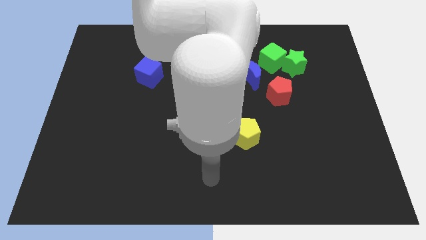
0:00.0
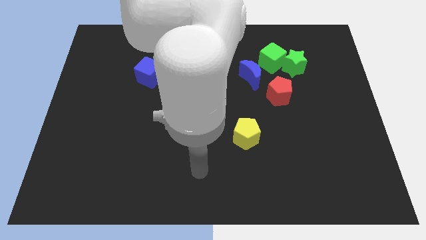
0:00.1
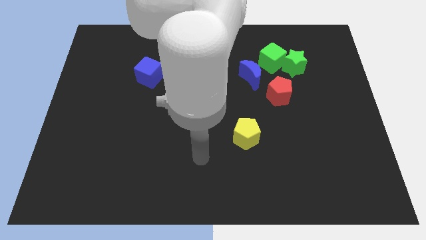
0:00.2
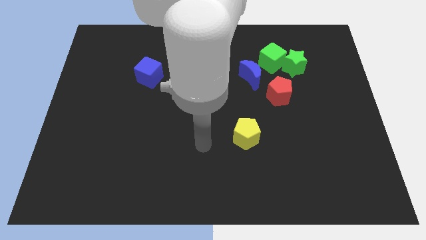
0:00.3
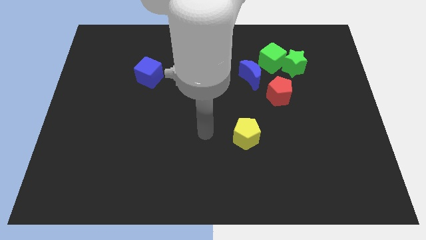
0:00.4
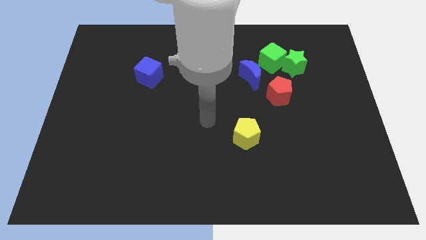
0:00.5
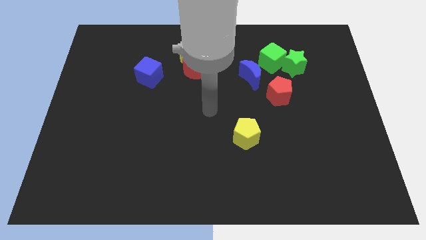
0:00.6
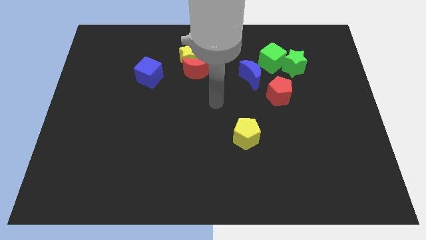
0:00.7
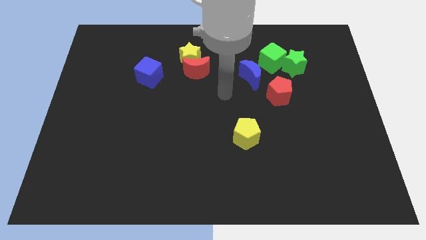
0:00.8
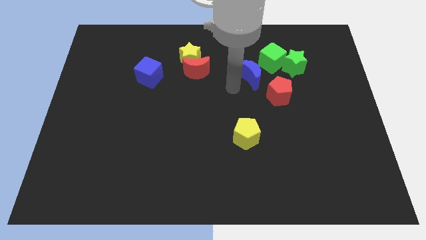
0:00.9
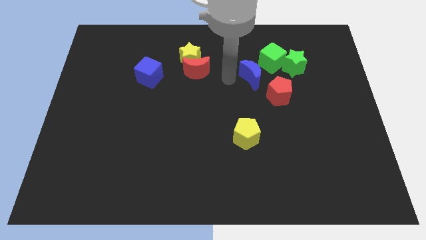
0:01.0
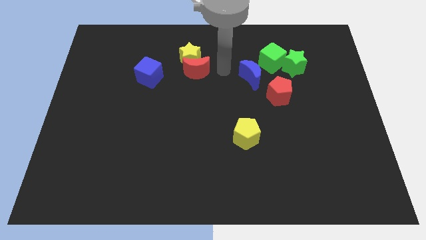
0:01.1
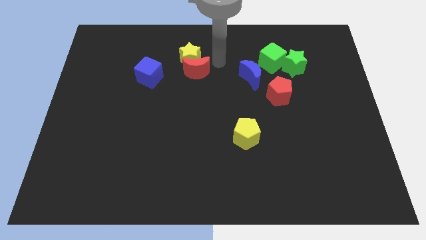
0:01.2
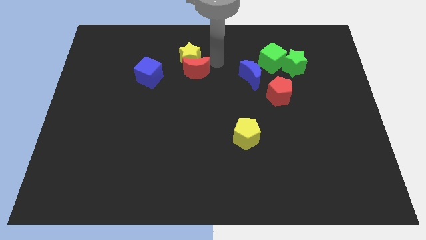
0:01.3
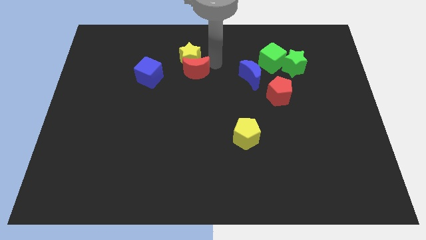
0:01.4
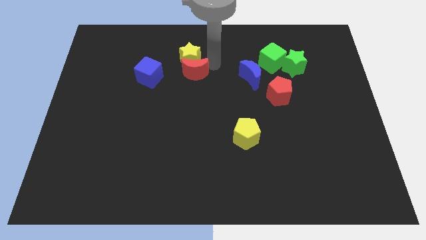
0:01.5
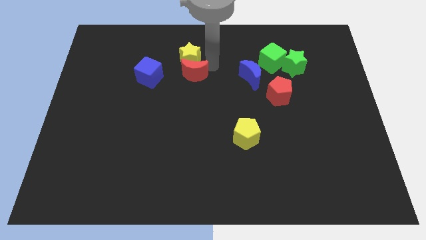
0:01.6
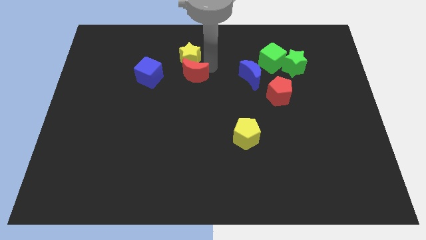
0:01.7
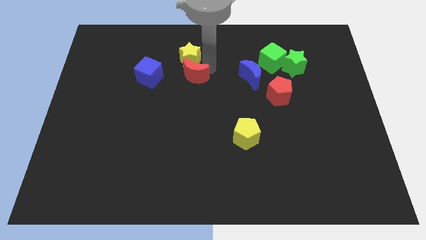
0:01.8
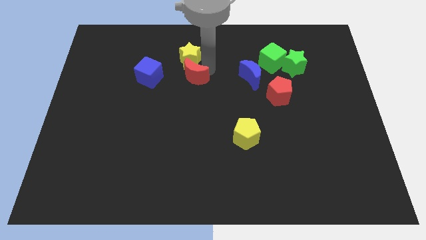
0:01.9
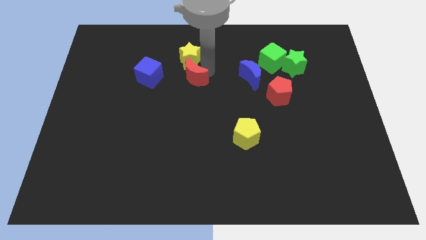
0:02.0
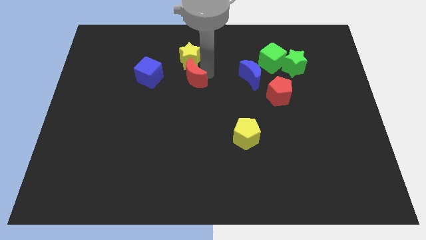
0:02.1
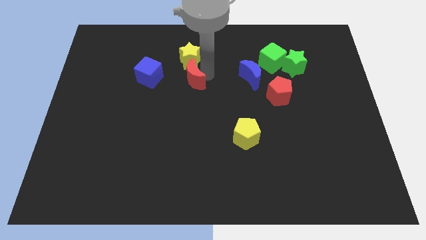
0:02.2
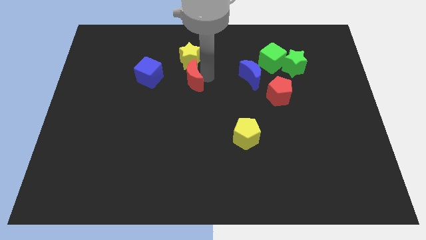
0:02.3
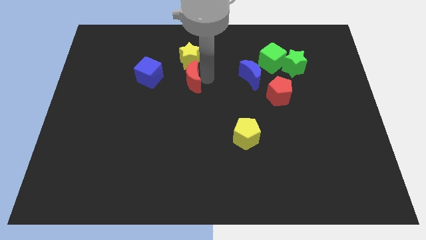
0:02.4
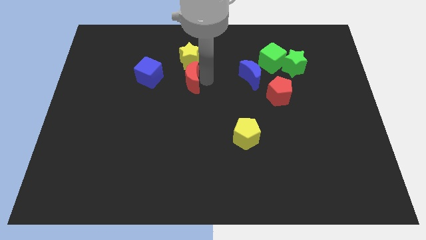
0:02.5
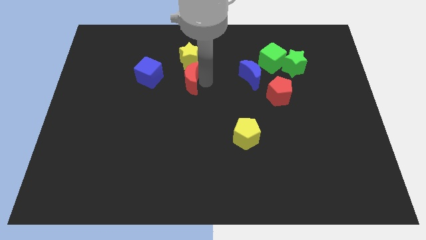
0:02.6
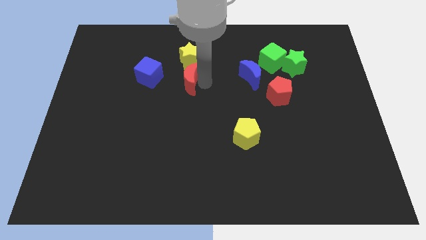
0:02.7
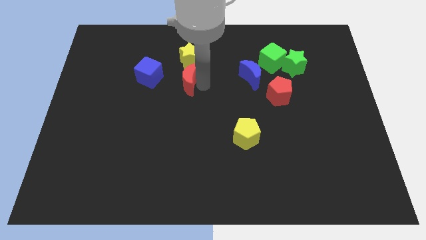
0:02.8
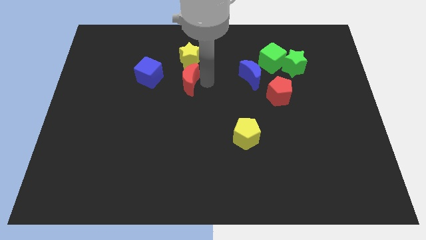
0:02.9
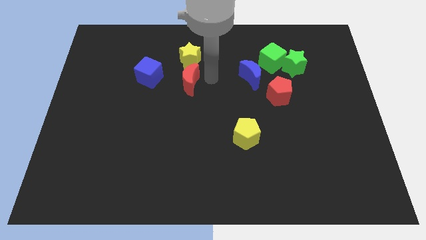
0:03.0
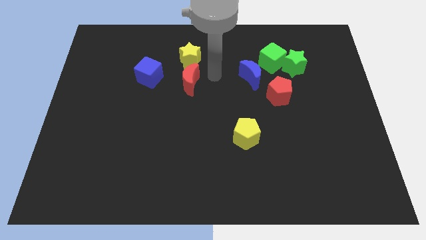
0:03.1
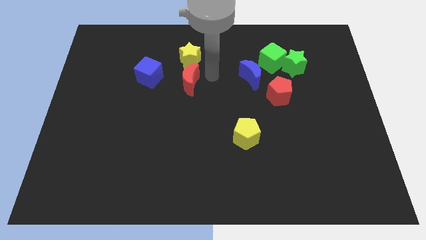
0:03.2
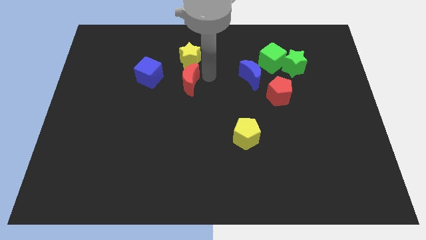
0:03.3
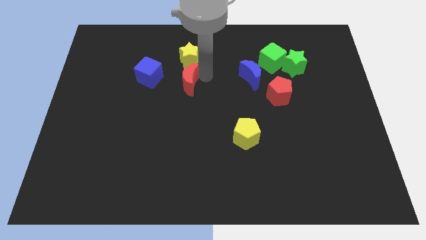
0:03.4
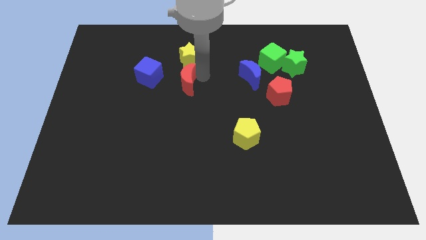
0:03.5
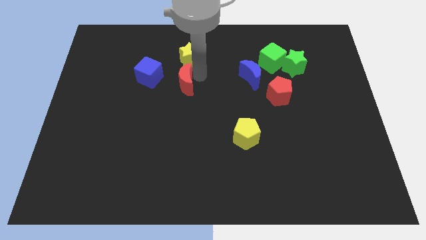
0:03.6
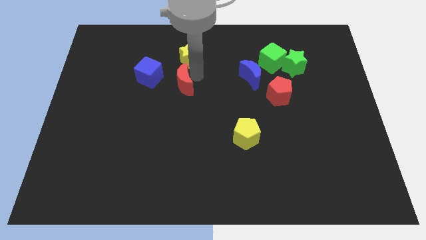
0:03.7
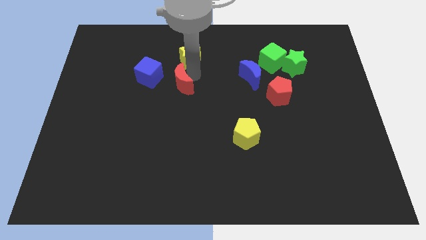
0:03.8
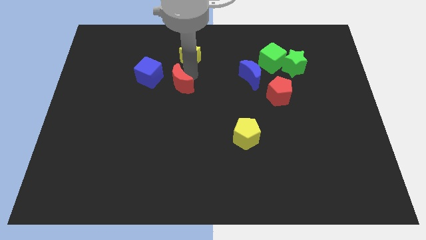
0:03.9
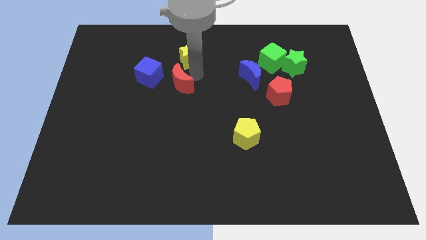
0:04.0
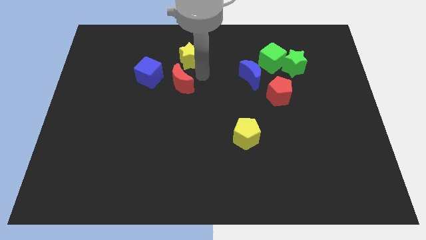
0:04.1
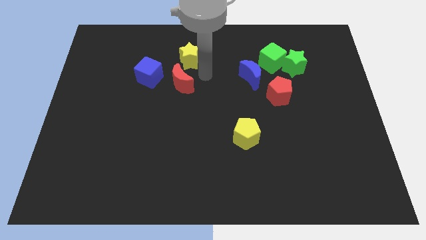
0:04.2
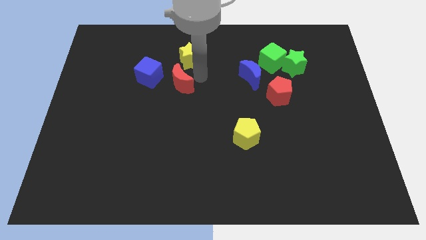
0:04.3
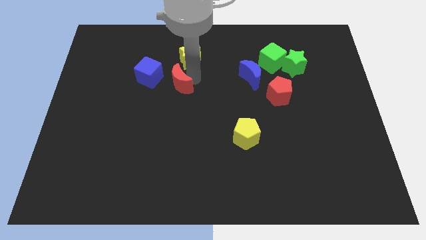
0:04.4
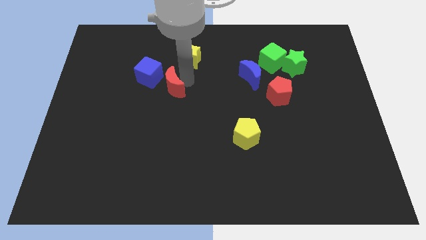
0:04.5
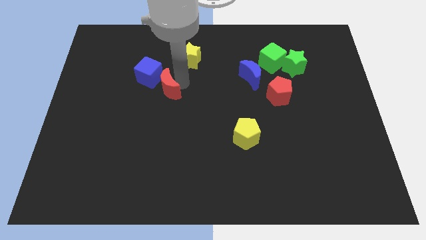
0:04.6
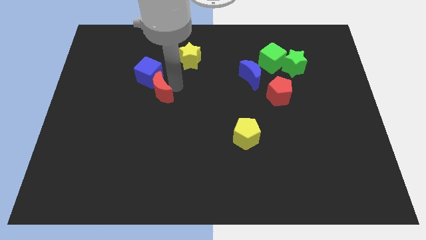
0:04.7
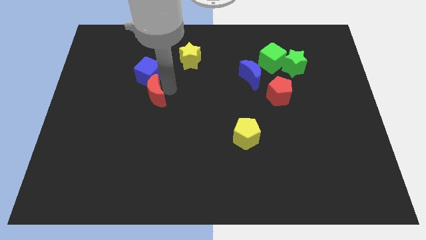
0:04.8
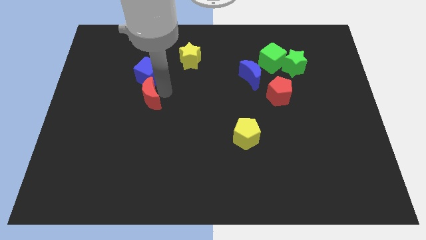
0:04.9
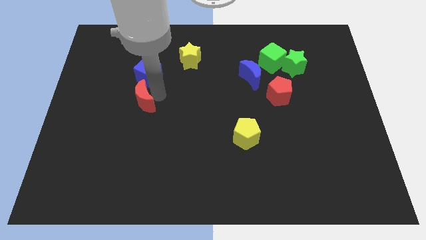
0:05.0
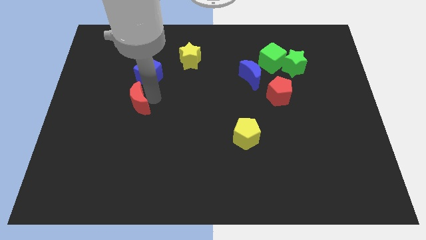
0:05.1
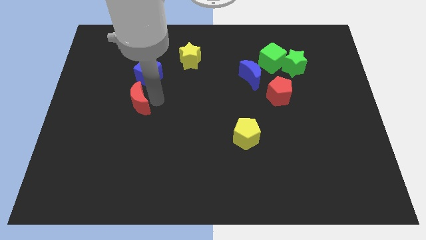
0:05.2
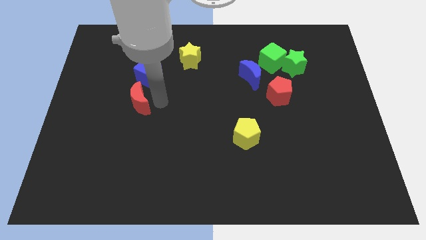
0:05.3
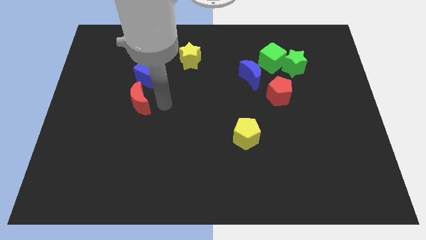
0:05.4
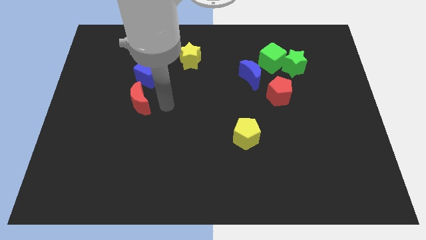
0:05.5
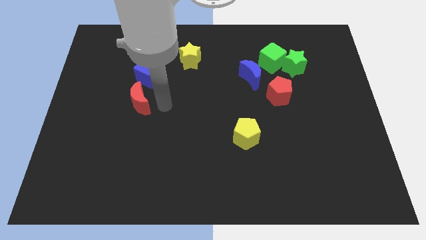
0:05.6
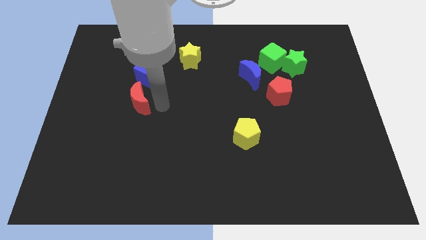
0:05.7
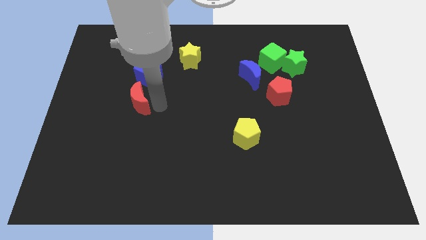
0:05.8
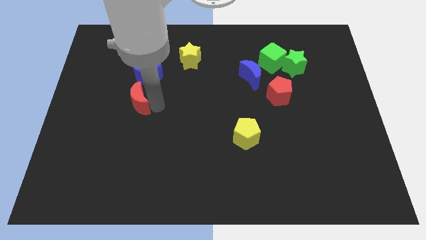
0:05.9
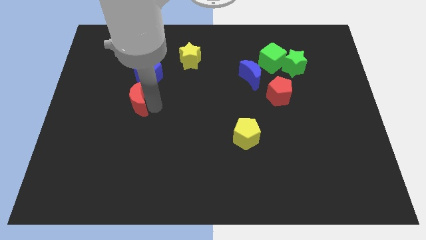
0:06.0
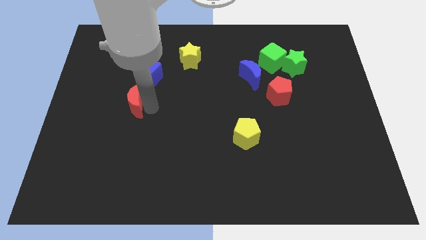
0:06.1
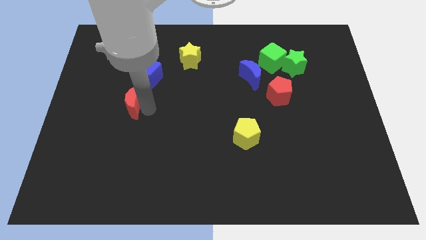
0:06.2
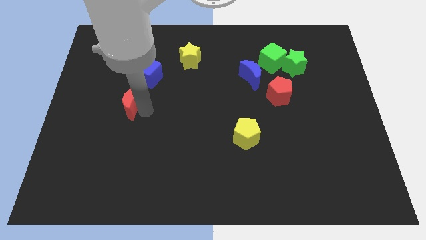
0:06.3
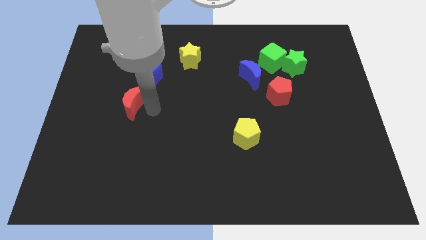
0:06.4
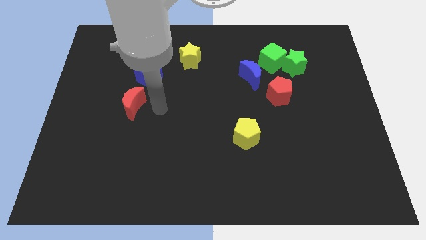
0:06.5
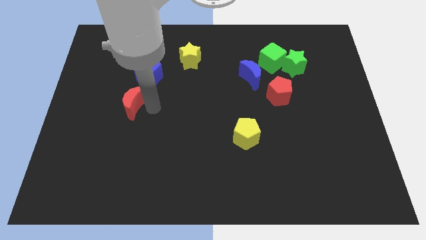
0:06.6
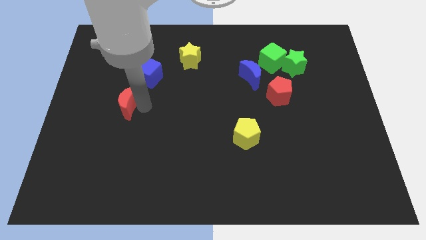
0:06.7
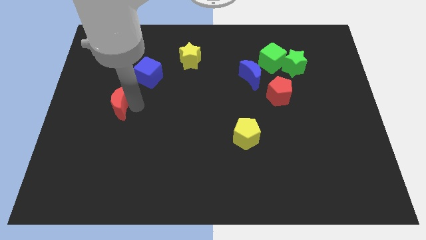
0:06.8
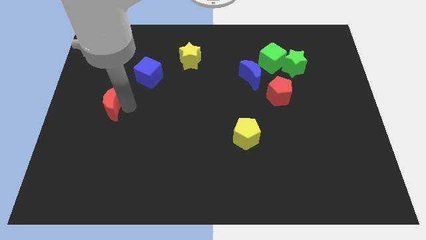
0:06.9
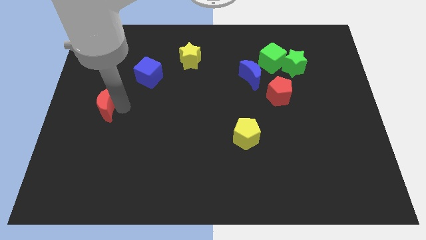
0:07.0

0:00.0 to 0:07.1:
push the red moon to the left side
